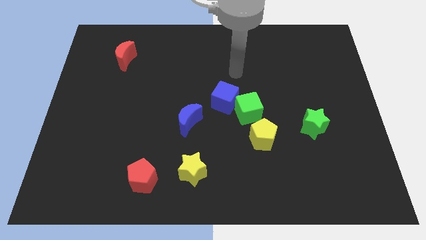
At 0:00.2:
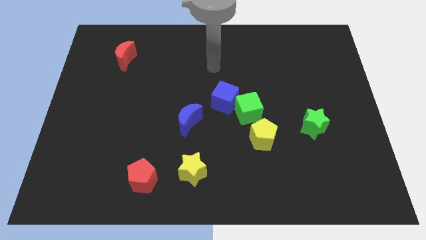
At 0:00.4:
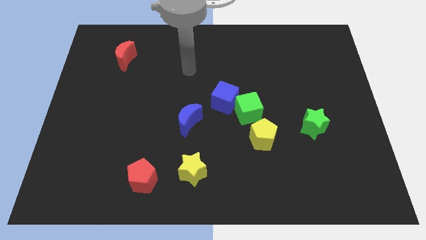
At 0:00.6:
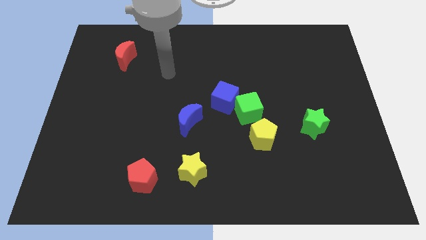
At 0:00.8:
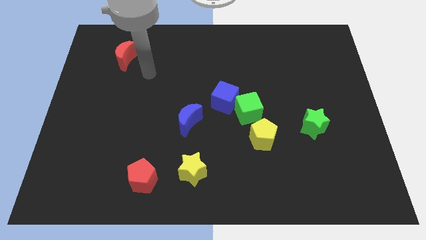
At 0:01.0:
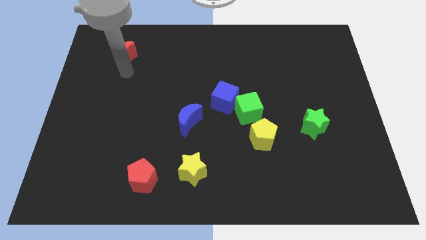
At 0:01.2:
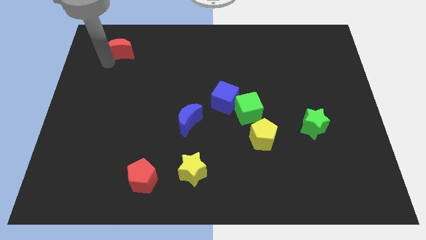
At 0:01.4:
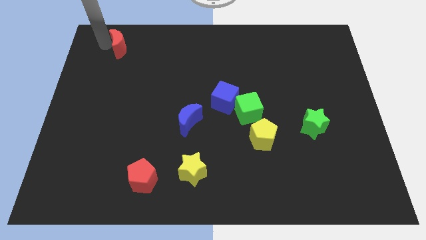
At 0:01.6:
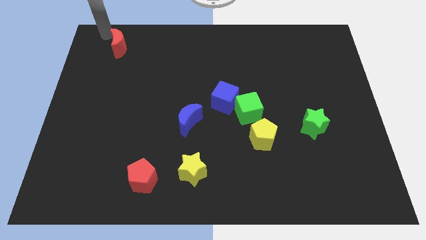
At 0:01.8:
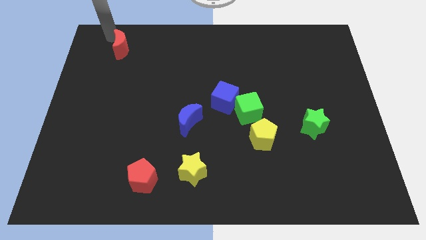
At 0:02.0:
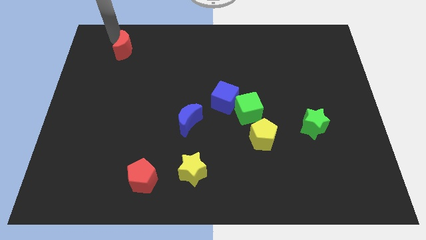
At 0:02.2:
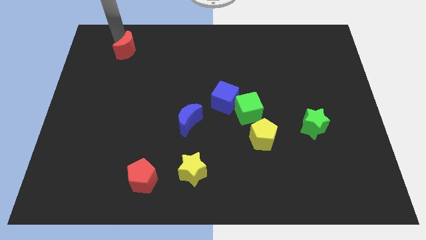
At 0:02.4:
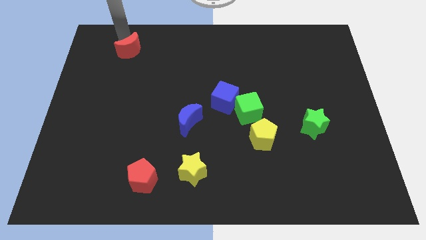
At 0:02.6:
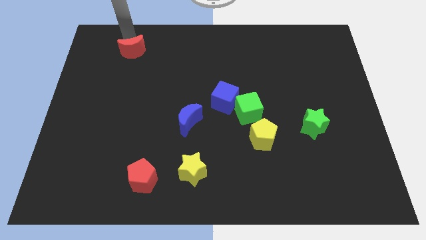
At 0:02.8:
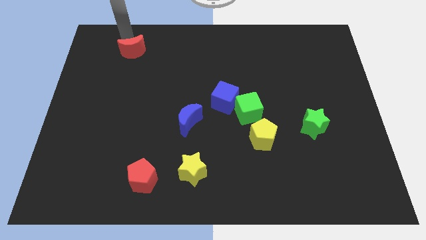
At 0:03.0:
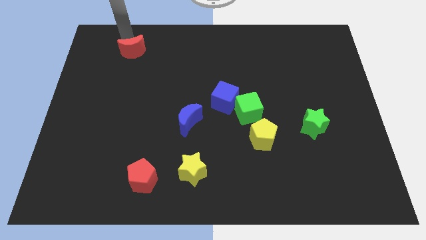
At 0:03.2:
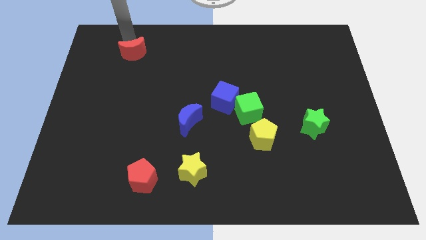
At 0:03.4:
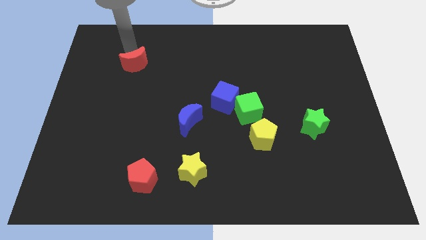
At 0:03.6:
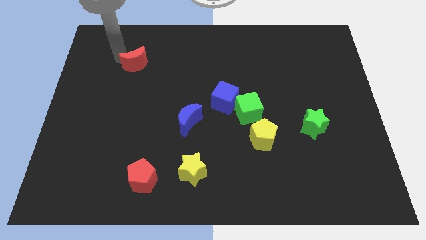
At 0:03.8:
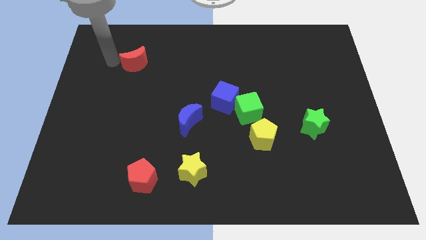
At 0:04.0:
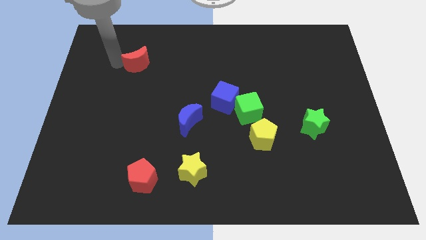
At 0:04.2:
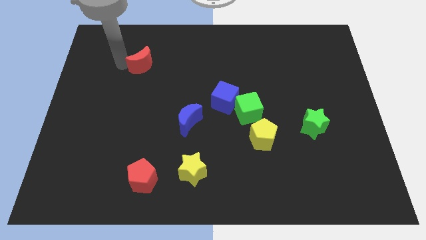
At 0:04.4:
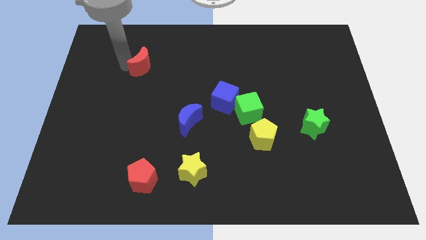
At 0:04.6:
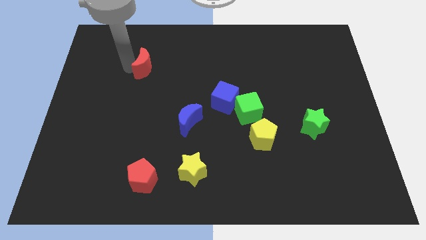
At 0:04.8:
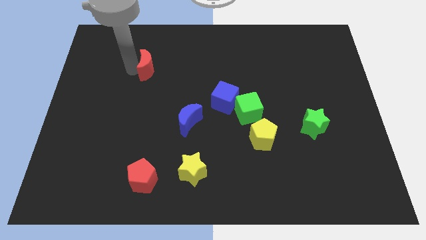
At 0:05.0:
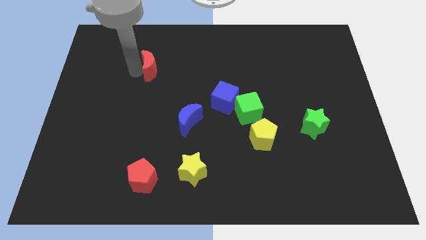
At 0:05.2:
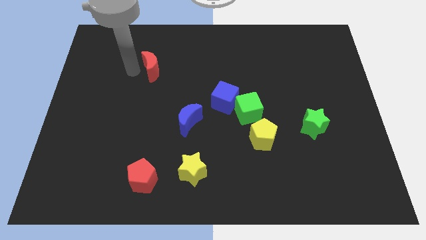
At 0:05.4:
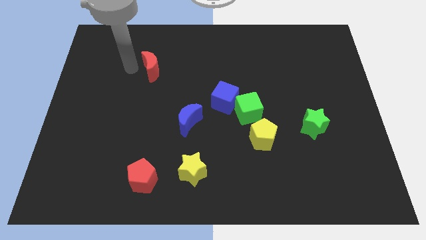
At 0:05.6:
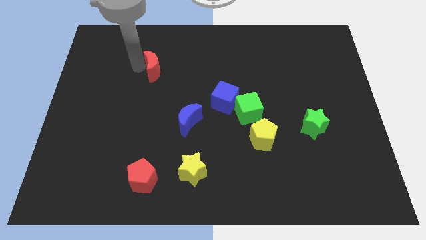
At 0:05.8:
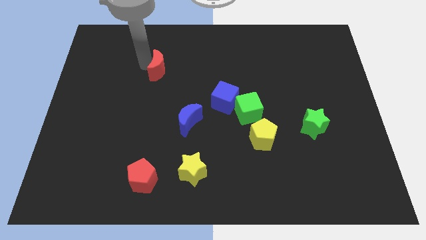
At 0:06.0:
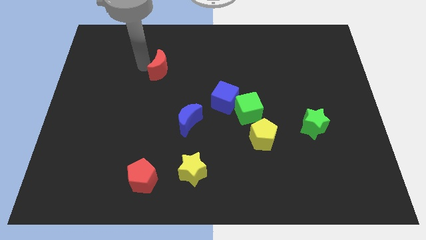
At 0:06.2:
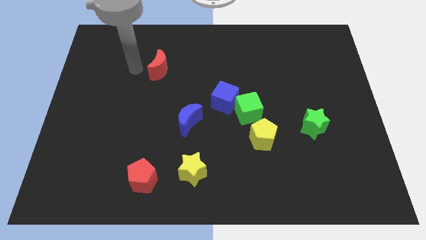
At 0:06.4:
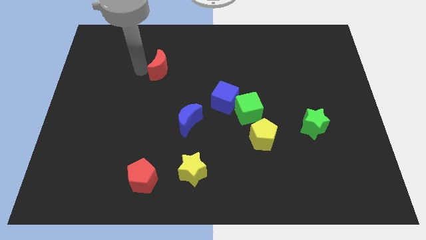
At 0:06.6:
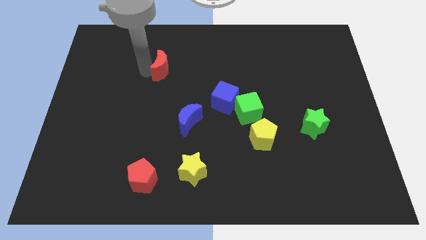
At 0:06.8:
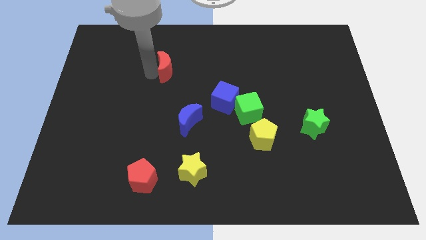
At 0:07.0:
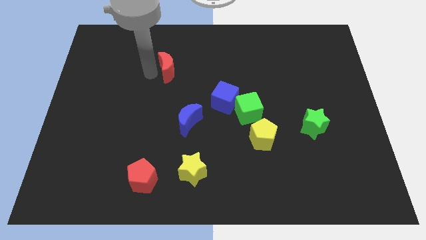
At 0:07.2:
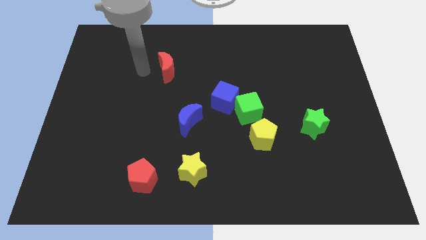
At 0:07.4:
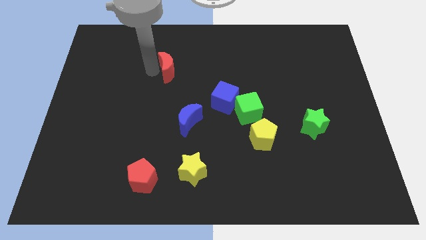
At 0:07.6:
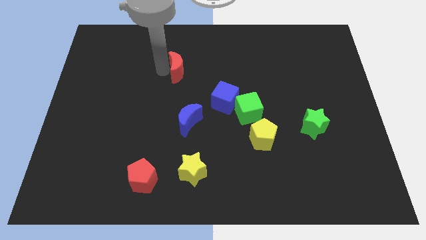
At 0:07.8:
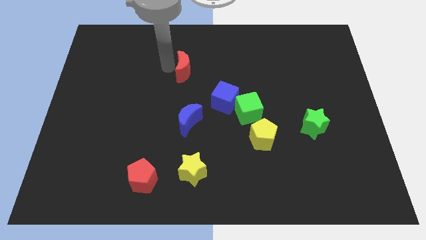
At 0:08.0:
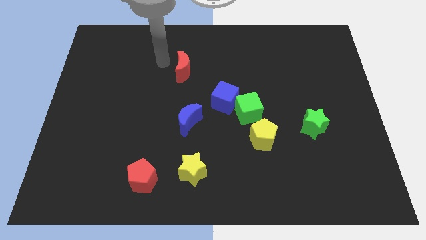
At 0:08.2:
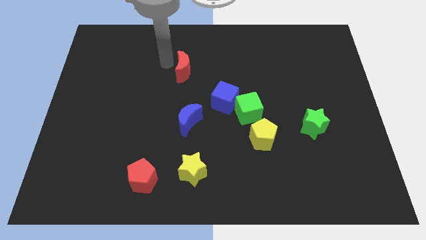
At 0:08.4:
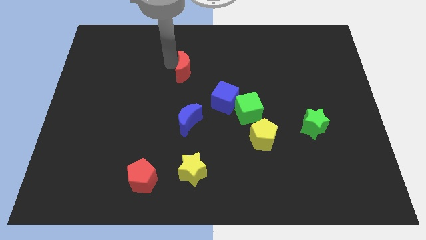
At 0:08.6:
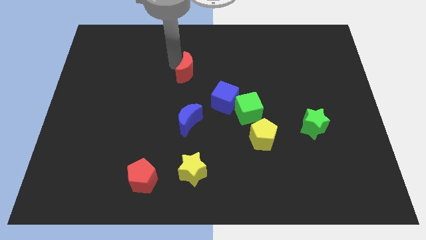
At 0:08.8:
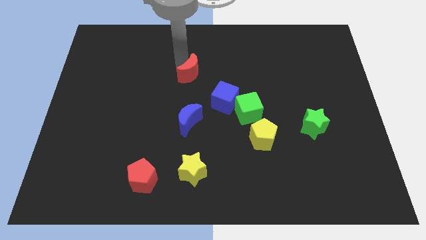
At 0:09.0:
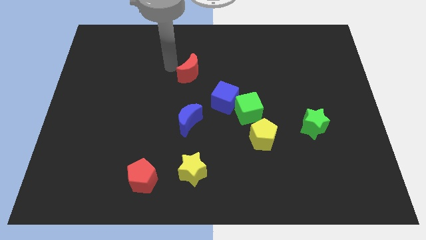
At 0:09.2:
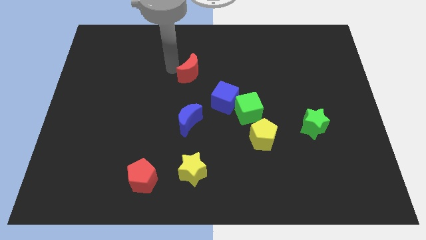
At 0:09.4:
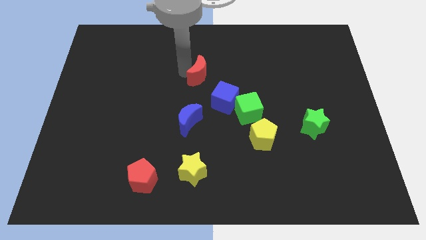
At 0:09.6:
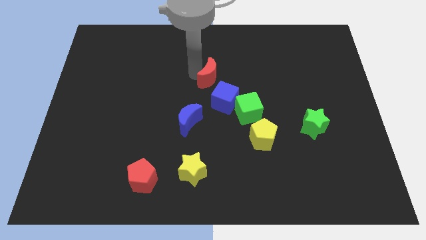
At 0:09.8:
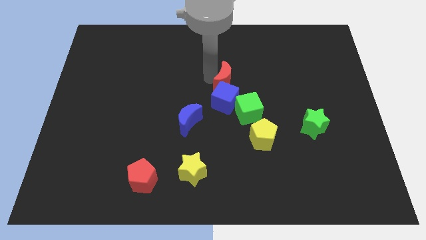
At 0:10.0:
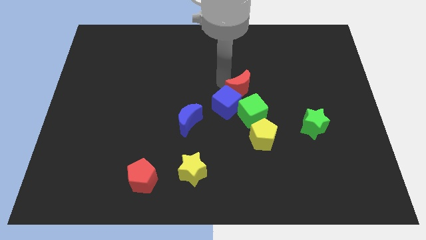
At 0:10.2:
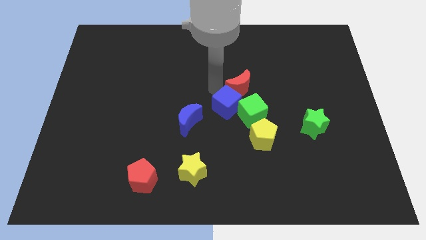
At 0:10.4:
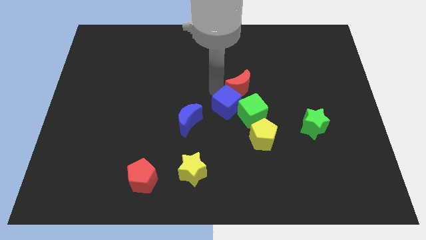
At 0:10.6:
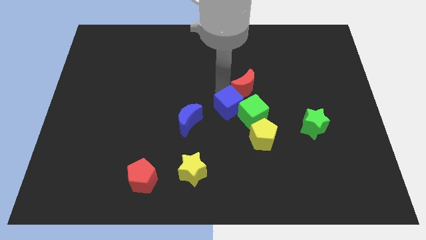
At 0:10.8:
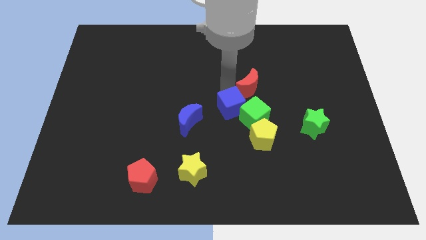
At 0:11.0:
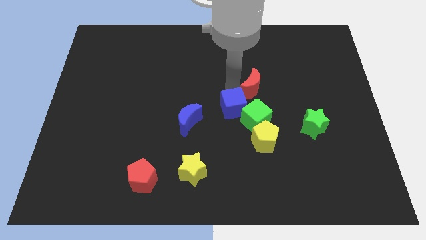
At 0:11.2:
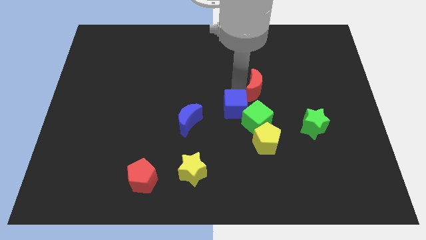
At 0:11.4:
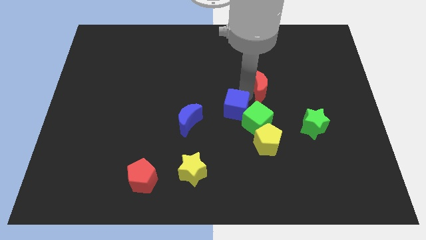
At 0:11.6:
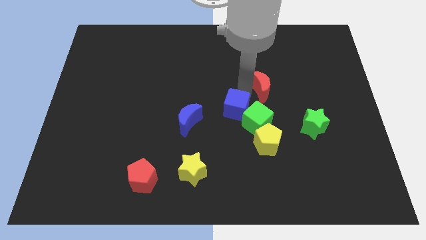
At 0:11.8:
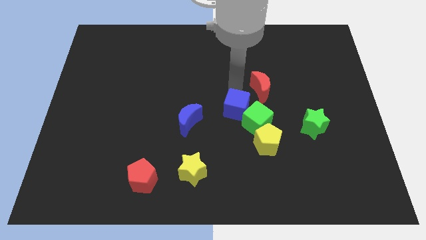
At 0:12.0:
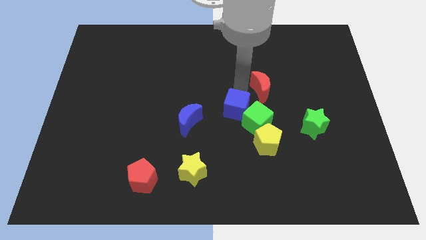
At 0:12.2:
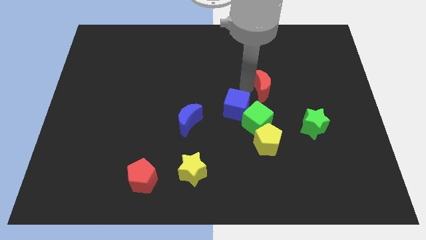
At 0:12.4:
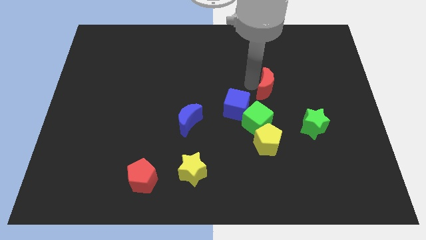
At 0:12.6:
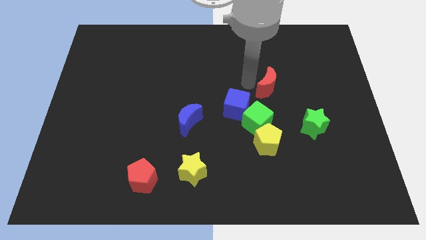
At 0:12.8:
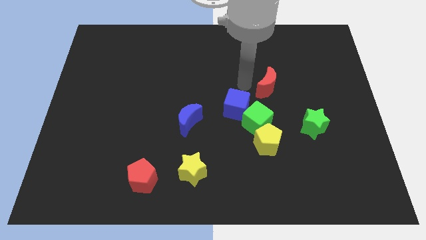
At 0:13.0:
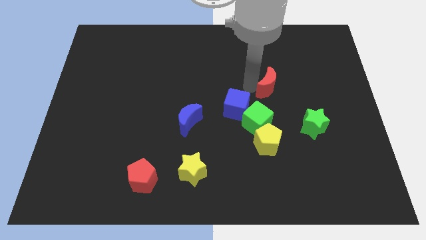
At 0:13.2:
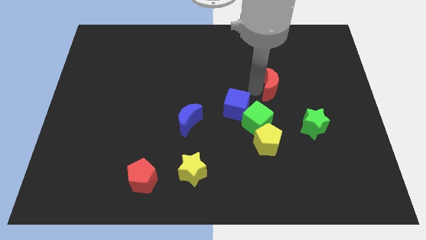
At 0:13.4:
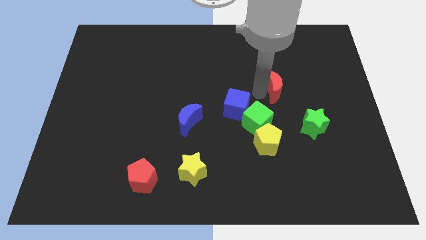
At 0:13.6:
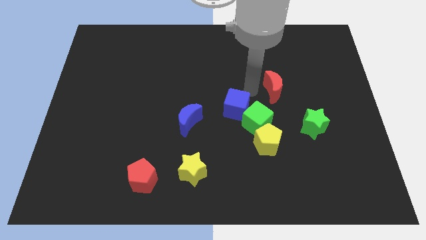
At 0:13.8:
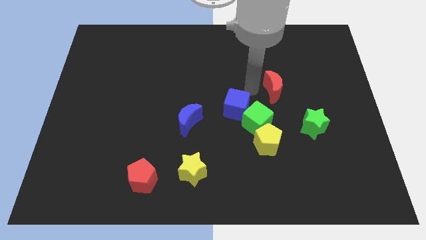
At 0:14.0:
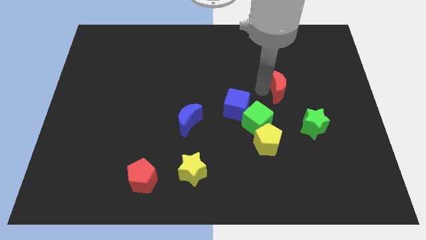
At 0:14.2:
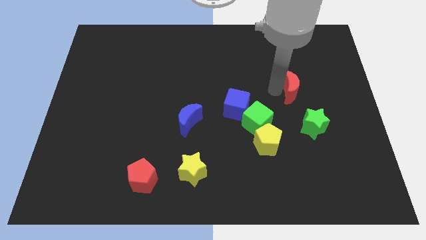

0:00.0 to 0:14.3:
push the red moon to the top of the green star
